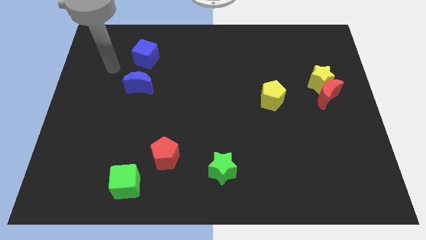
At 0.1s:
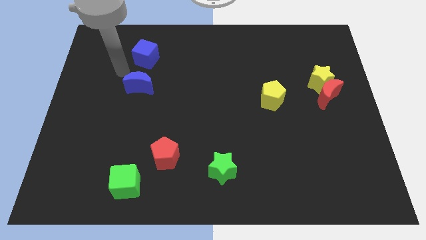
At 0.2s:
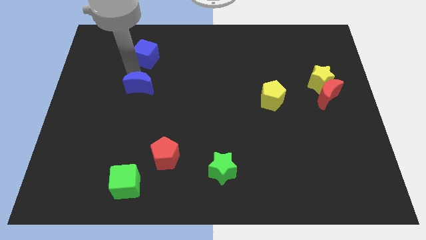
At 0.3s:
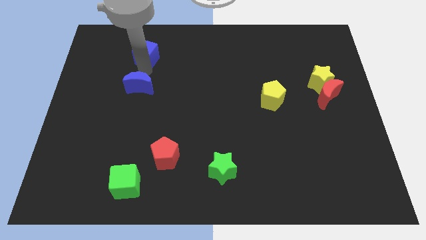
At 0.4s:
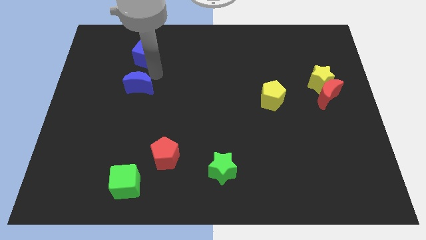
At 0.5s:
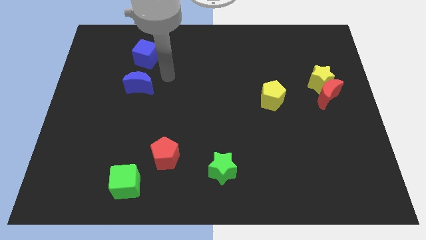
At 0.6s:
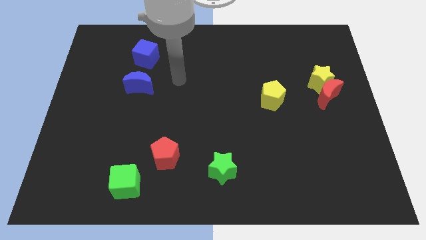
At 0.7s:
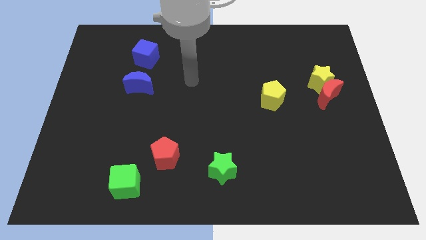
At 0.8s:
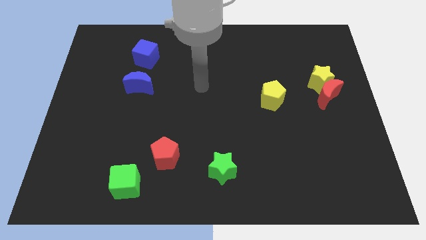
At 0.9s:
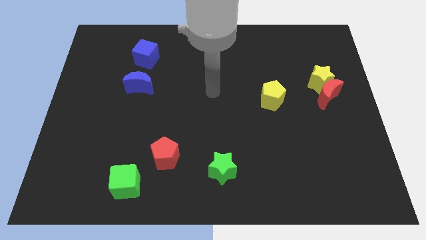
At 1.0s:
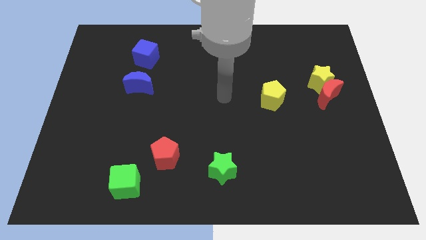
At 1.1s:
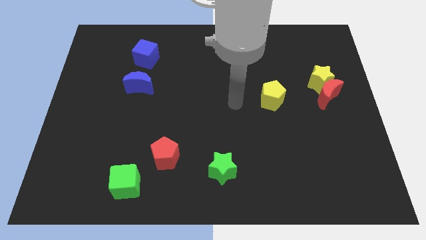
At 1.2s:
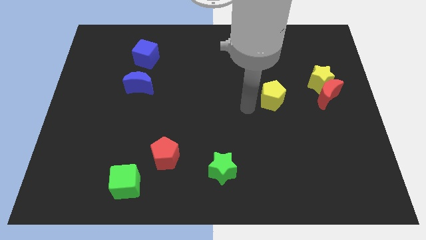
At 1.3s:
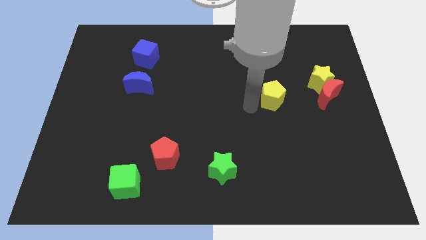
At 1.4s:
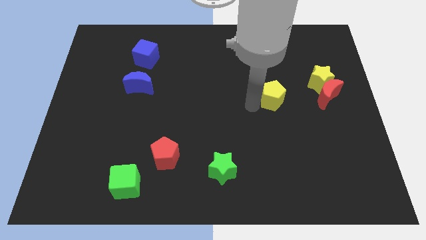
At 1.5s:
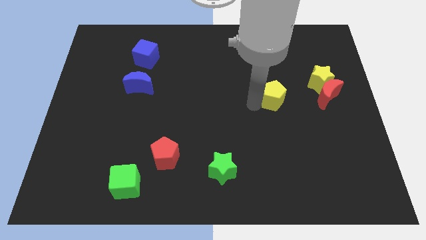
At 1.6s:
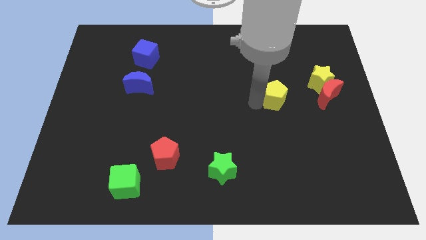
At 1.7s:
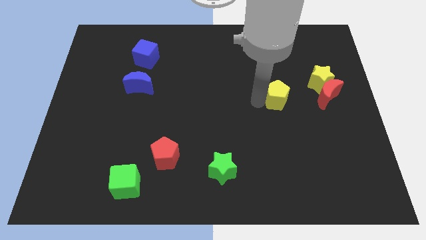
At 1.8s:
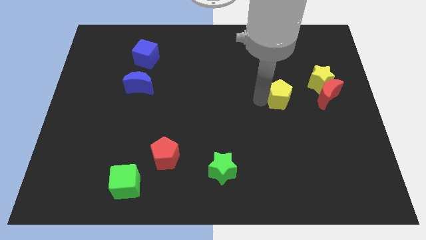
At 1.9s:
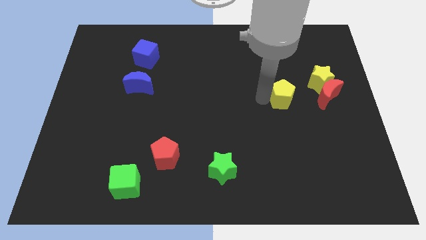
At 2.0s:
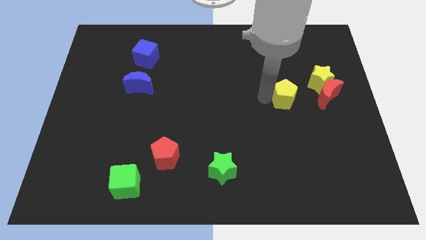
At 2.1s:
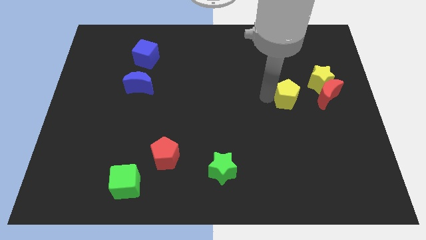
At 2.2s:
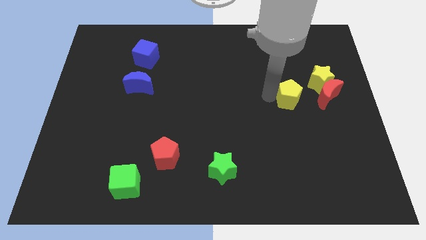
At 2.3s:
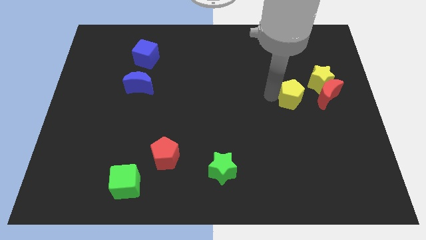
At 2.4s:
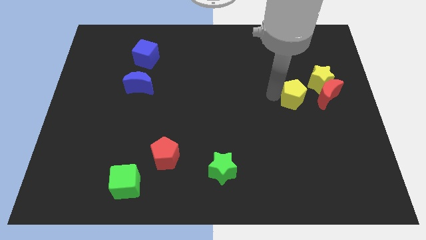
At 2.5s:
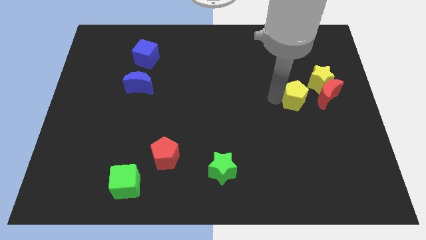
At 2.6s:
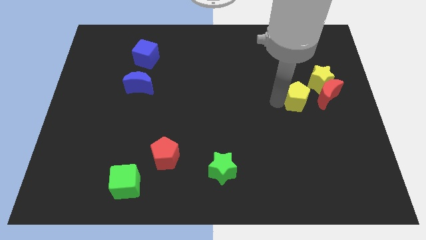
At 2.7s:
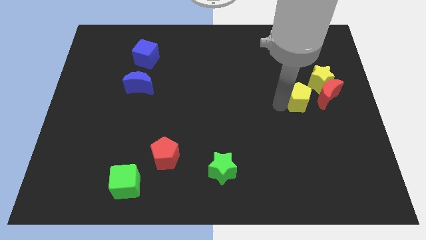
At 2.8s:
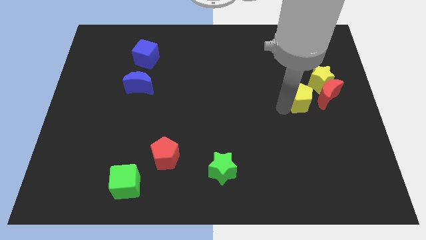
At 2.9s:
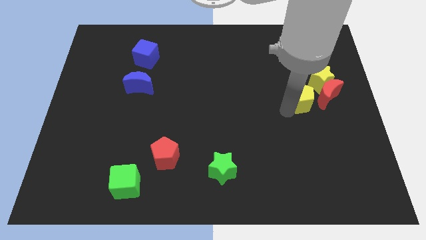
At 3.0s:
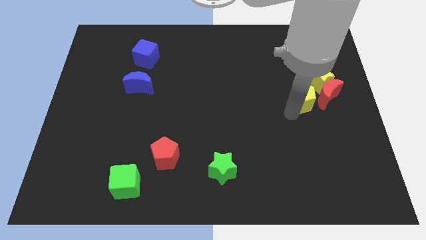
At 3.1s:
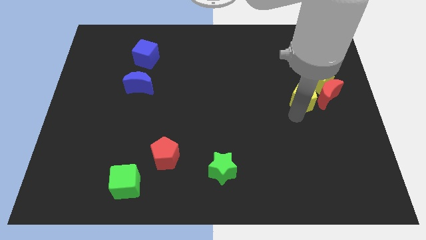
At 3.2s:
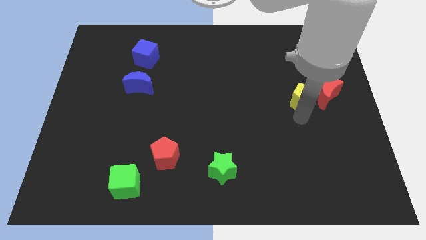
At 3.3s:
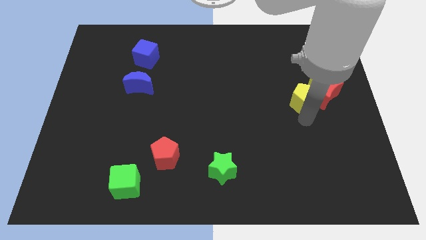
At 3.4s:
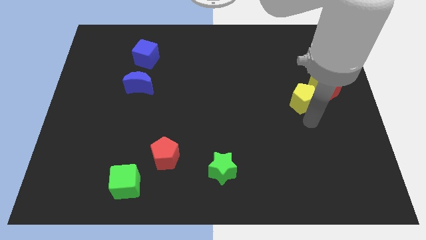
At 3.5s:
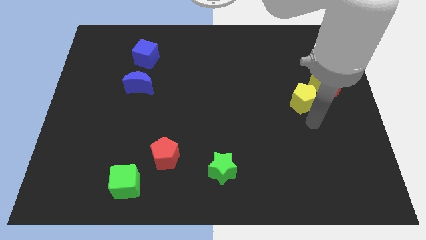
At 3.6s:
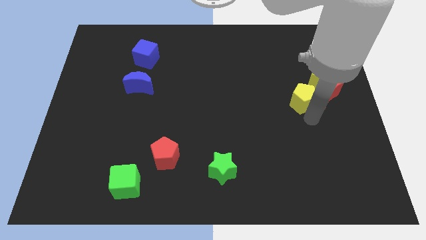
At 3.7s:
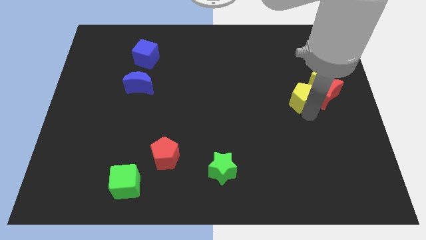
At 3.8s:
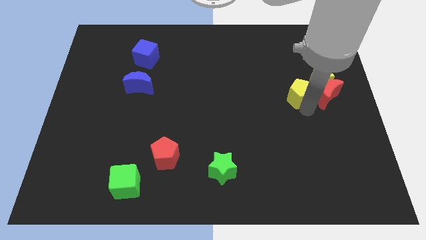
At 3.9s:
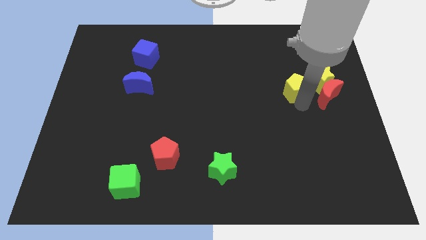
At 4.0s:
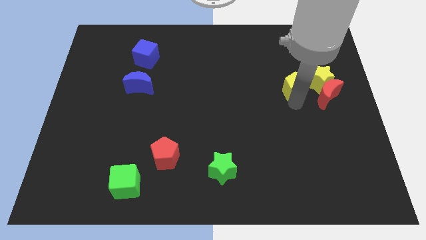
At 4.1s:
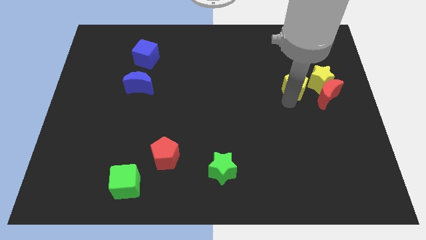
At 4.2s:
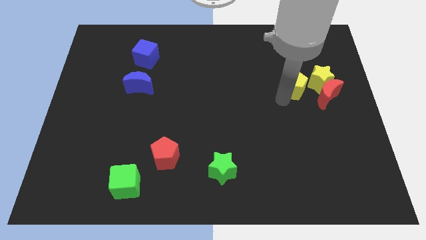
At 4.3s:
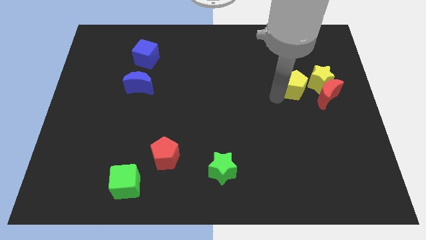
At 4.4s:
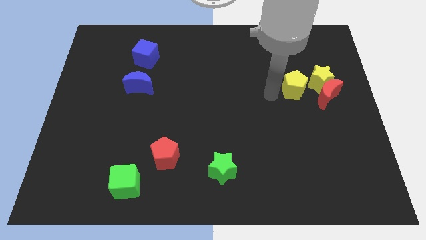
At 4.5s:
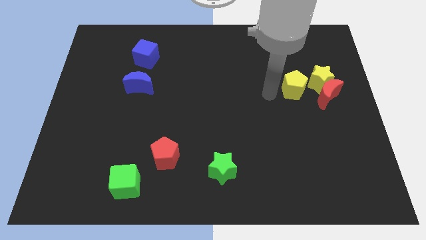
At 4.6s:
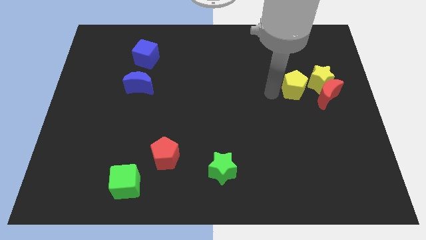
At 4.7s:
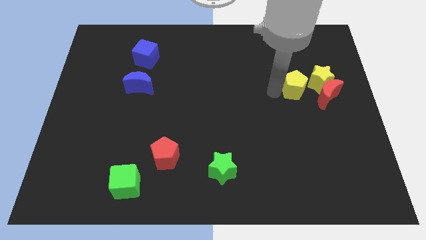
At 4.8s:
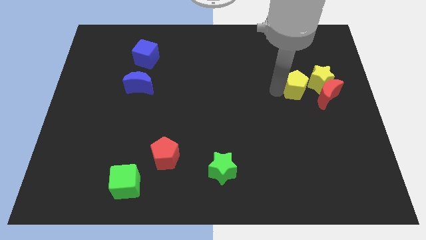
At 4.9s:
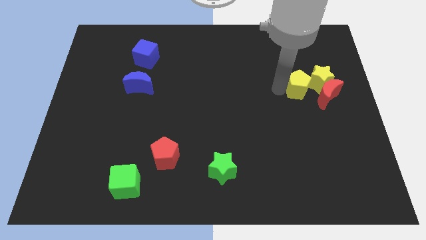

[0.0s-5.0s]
put the yellow pentagon close to the yellow star

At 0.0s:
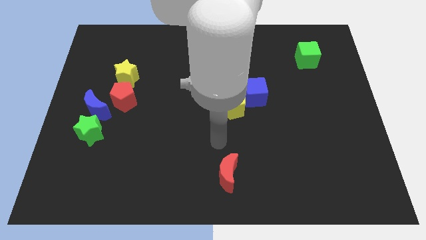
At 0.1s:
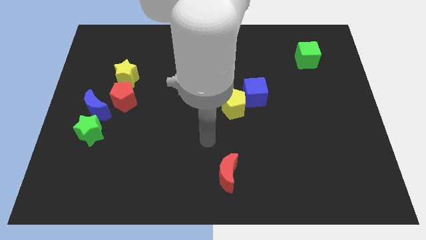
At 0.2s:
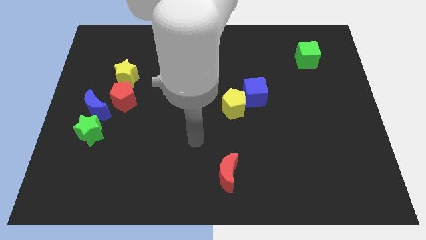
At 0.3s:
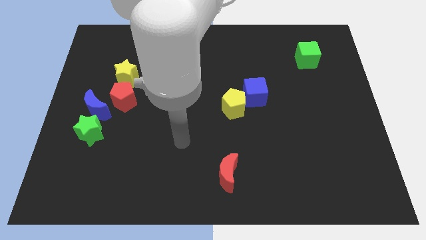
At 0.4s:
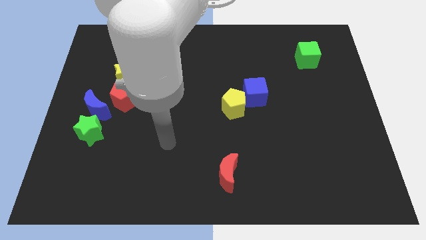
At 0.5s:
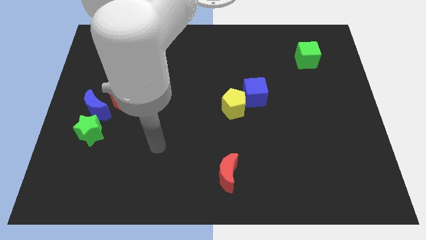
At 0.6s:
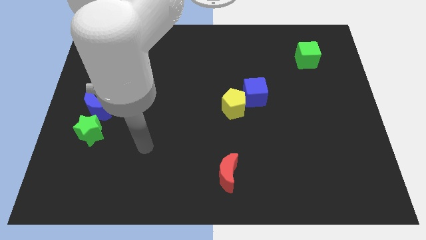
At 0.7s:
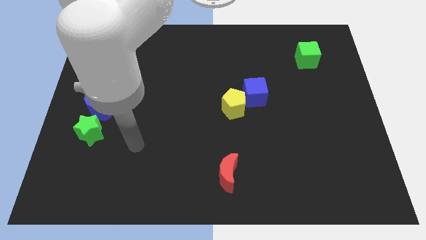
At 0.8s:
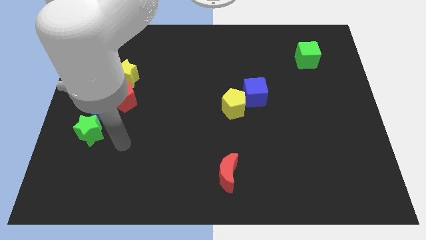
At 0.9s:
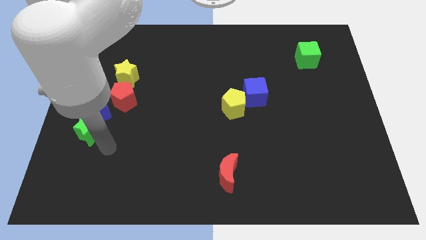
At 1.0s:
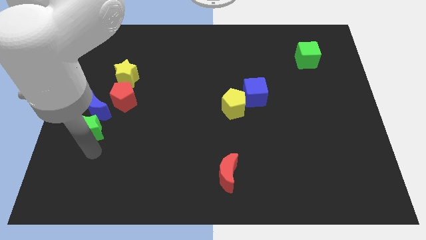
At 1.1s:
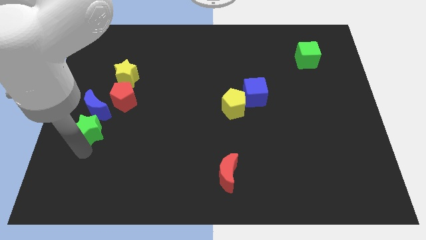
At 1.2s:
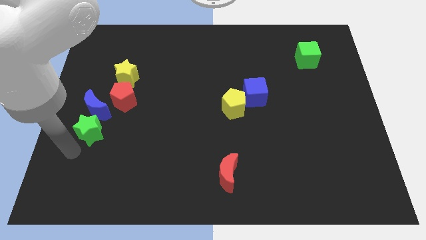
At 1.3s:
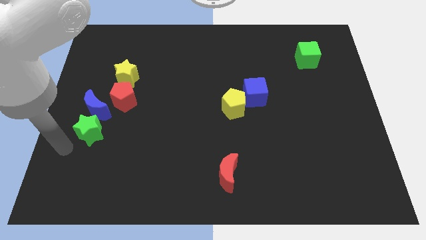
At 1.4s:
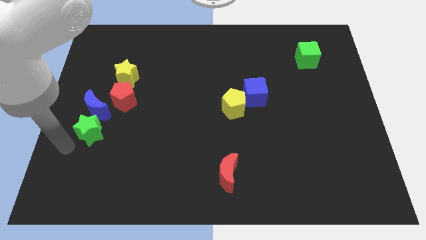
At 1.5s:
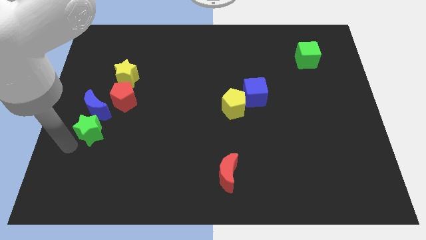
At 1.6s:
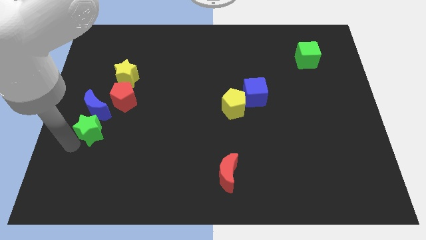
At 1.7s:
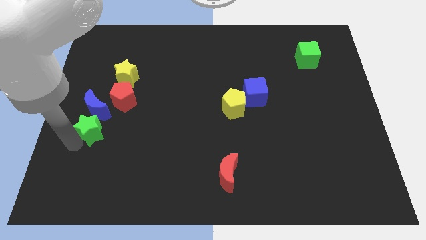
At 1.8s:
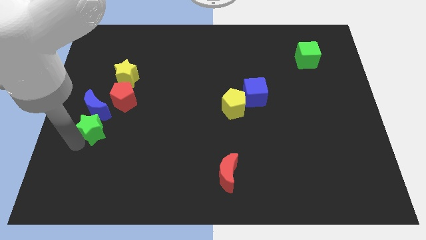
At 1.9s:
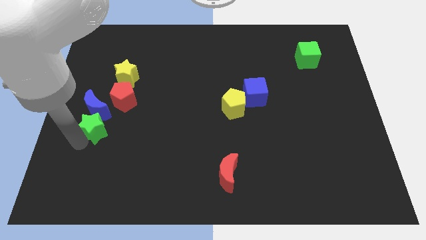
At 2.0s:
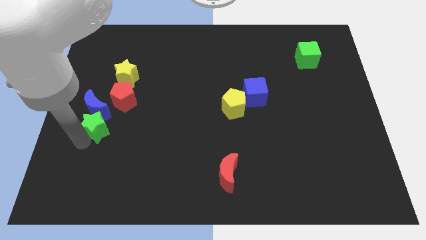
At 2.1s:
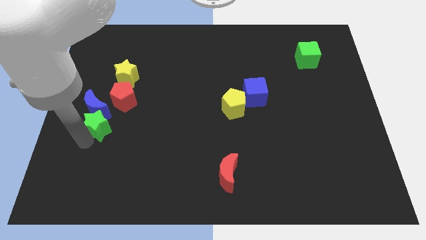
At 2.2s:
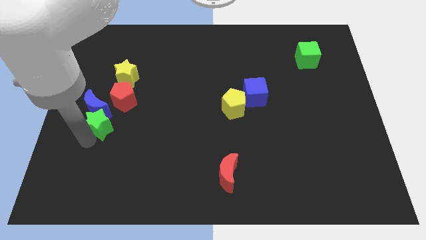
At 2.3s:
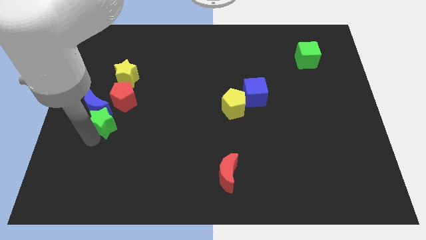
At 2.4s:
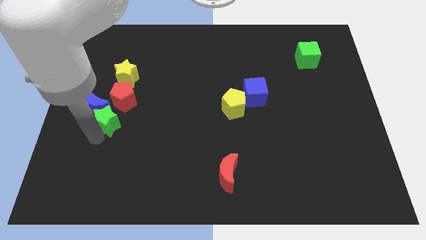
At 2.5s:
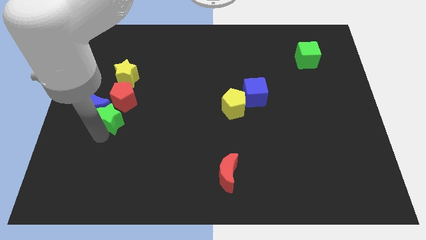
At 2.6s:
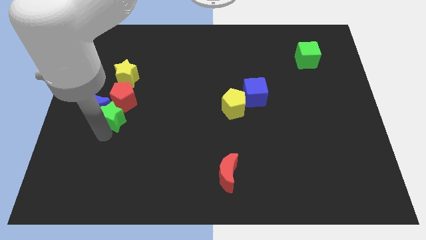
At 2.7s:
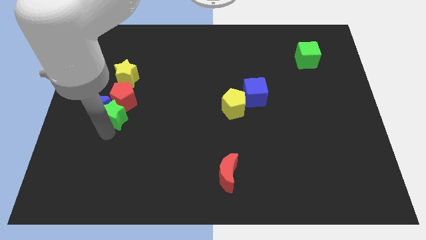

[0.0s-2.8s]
push the green star next to the red pentagon
